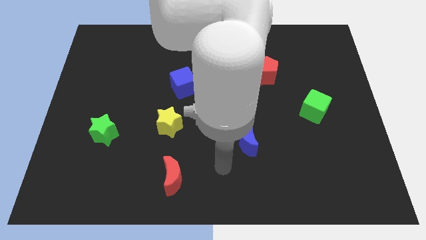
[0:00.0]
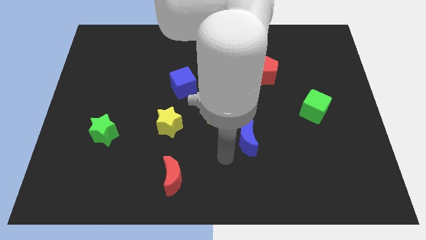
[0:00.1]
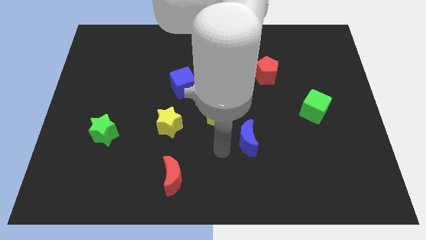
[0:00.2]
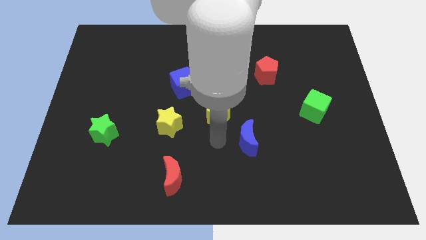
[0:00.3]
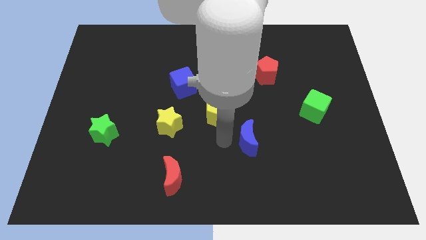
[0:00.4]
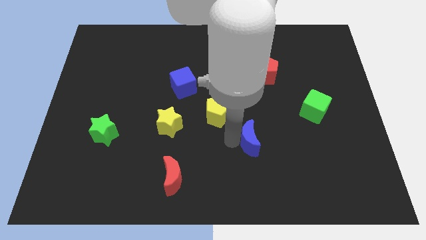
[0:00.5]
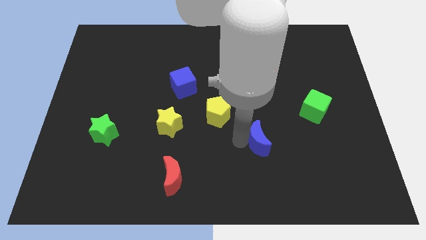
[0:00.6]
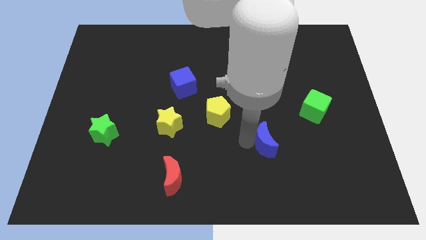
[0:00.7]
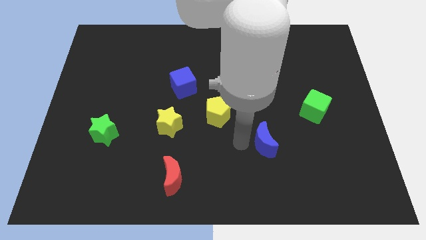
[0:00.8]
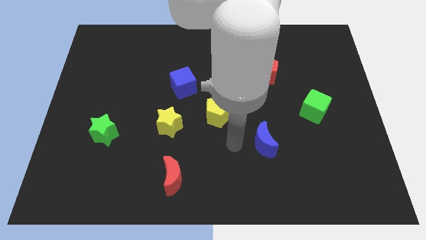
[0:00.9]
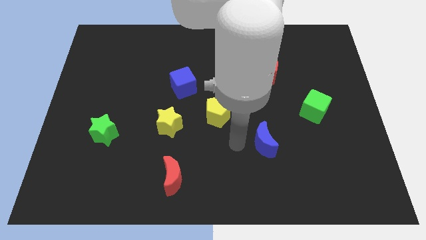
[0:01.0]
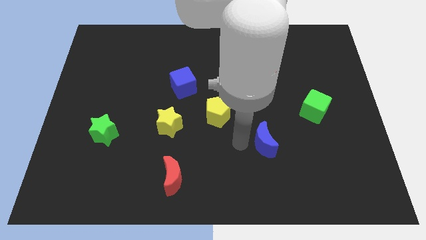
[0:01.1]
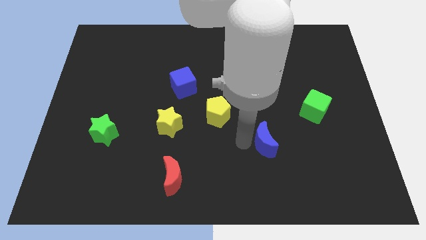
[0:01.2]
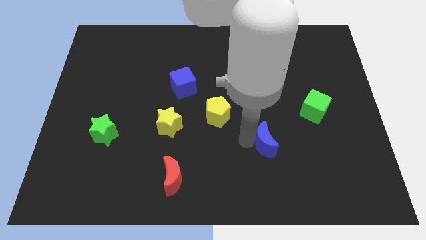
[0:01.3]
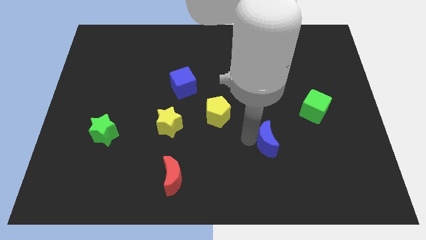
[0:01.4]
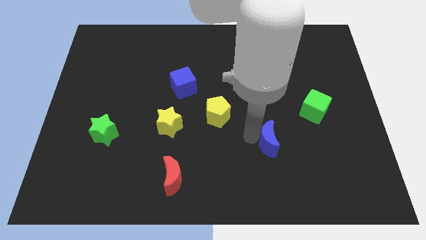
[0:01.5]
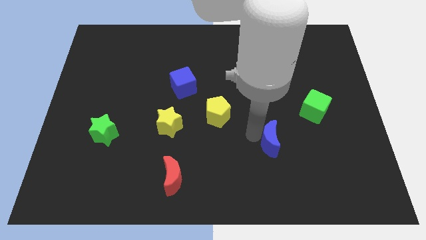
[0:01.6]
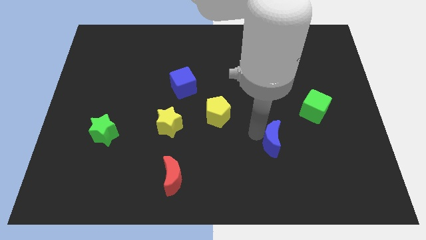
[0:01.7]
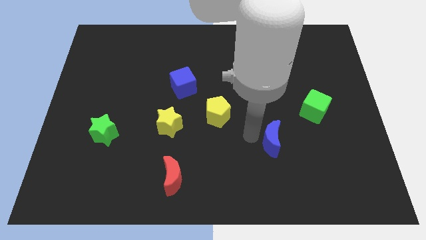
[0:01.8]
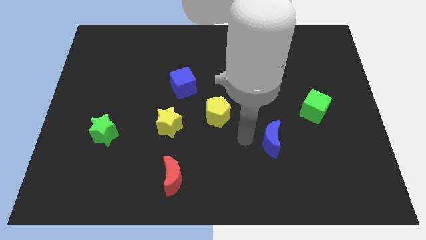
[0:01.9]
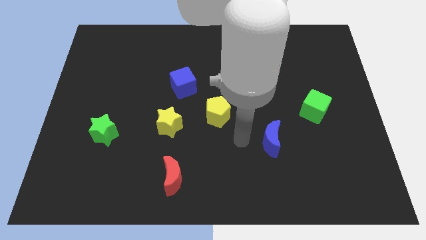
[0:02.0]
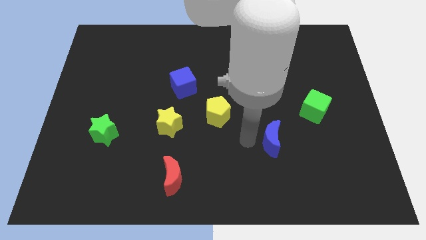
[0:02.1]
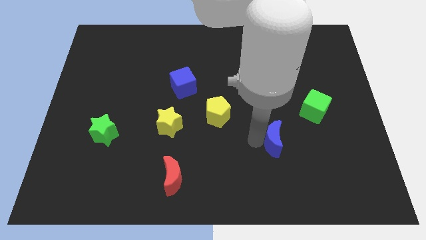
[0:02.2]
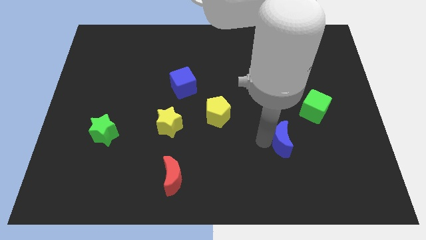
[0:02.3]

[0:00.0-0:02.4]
move the blue moon a bit to the right

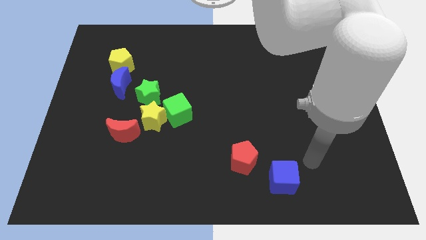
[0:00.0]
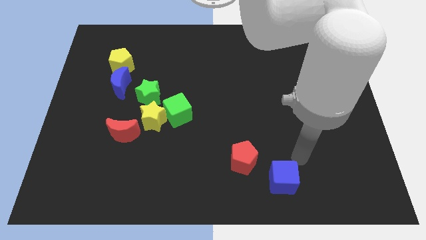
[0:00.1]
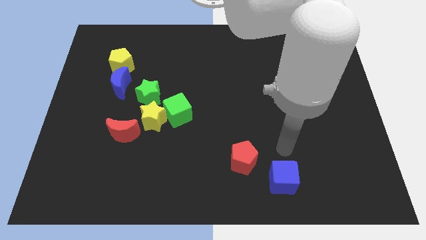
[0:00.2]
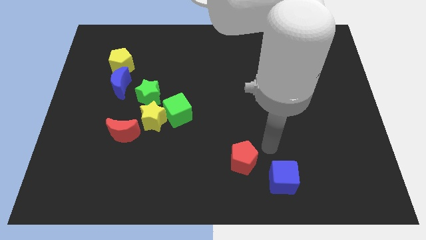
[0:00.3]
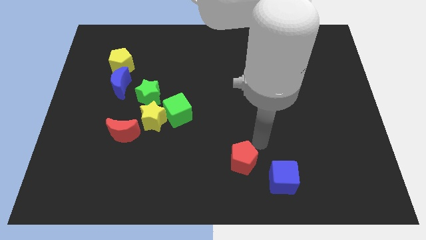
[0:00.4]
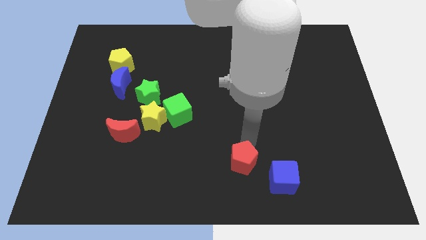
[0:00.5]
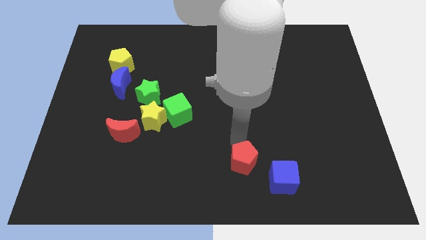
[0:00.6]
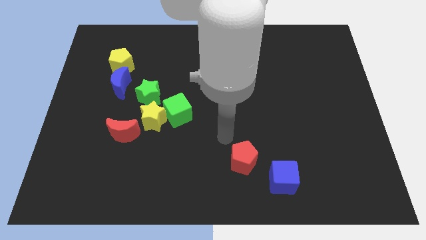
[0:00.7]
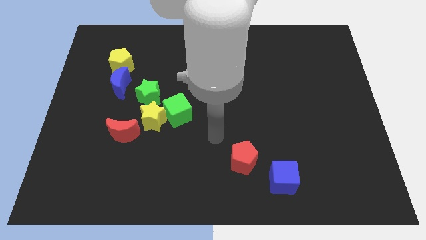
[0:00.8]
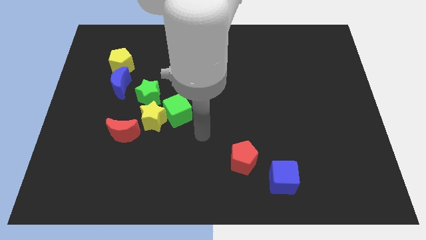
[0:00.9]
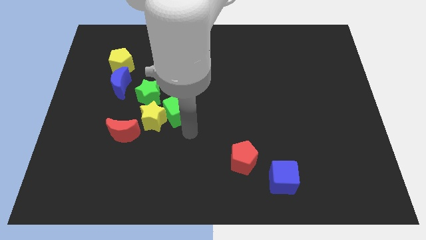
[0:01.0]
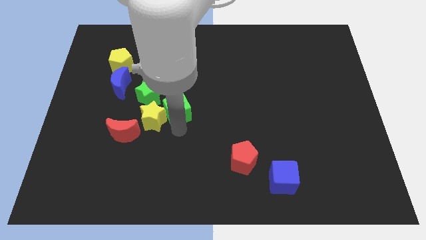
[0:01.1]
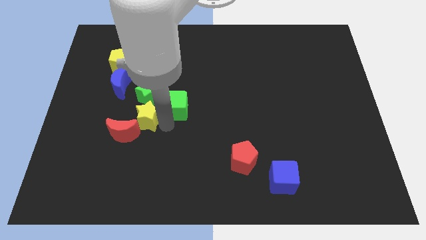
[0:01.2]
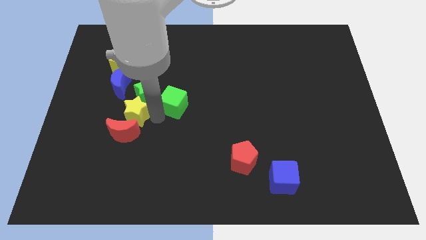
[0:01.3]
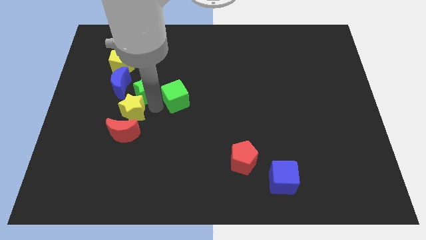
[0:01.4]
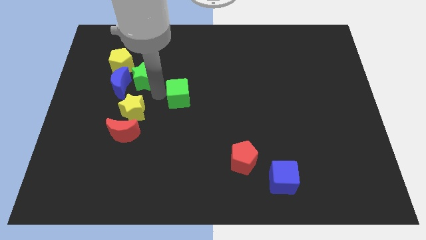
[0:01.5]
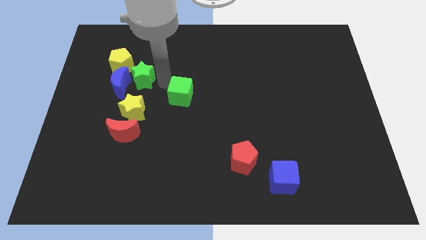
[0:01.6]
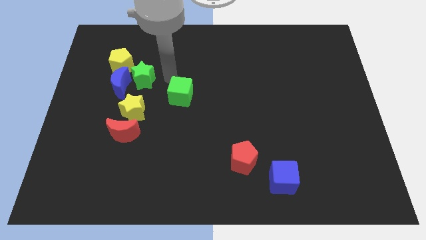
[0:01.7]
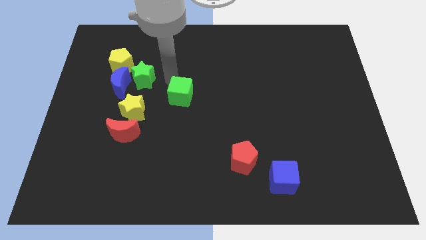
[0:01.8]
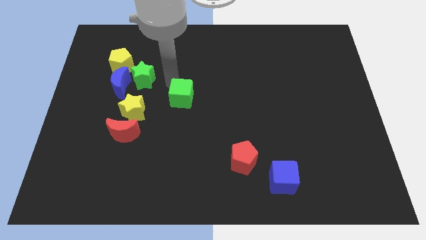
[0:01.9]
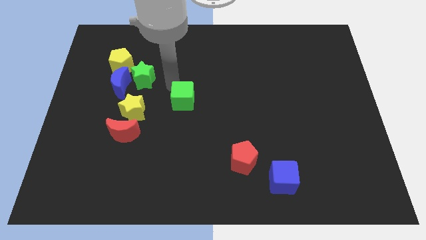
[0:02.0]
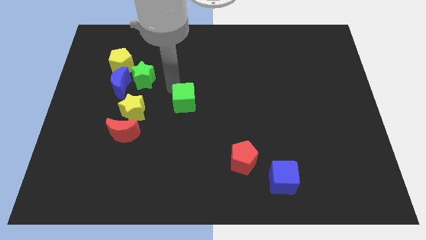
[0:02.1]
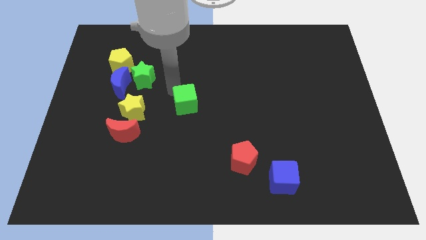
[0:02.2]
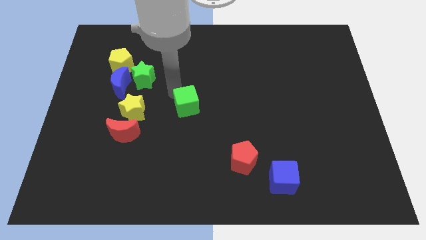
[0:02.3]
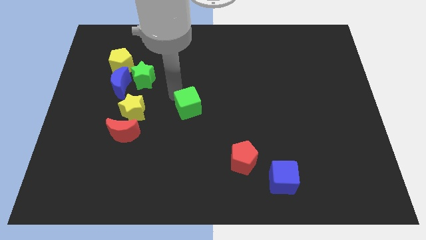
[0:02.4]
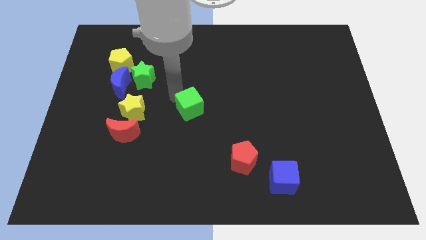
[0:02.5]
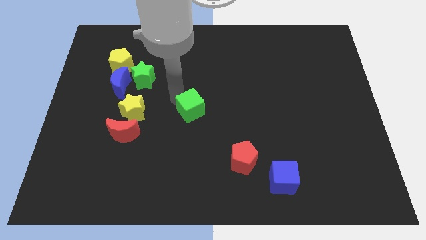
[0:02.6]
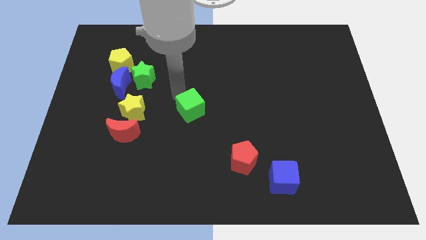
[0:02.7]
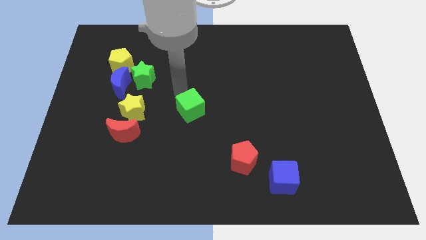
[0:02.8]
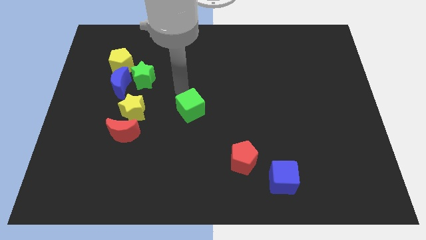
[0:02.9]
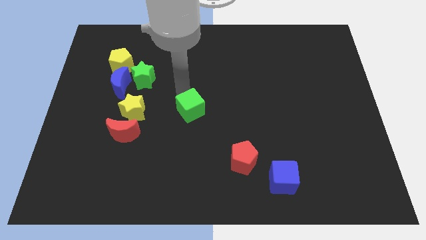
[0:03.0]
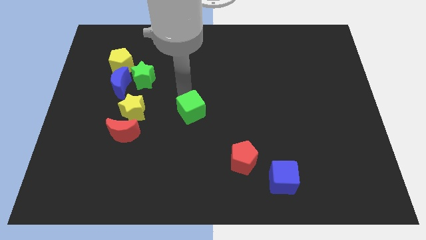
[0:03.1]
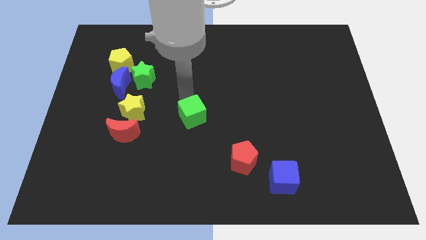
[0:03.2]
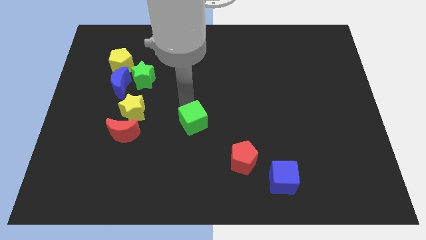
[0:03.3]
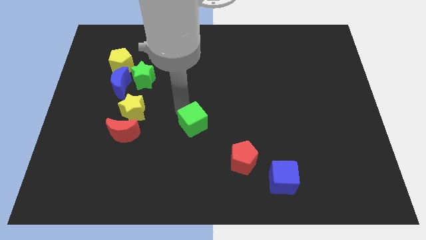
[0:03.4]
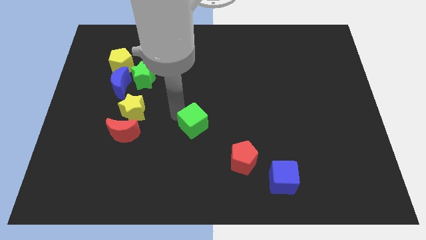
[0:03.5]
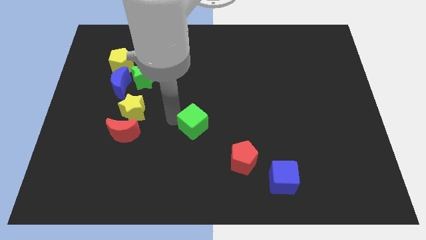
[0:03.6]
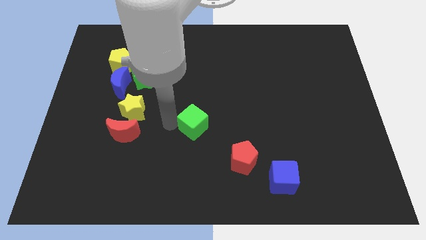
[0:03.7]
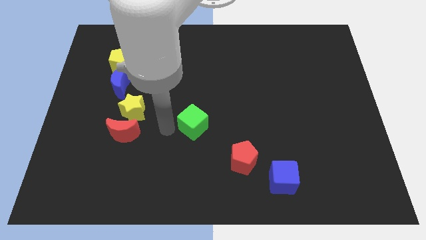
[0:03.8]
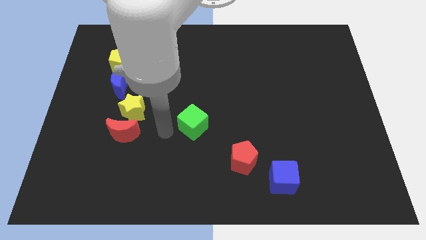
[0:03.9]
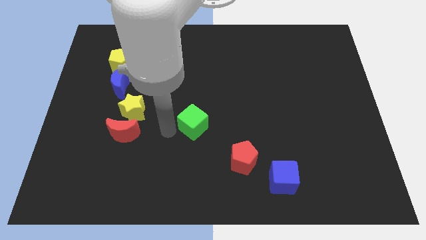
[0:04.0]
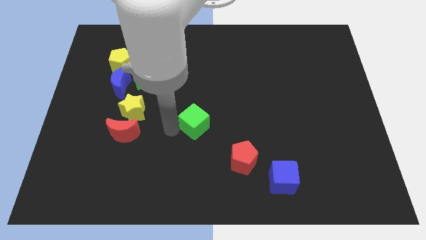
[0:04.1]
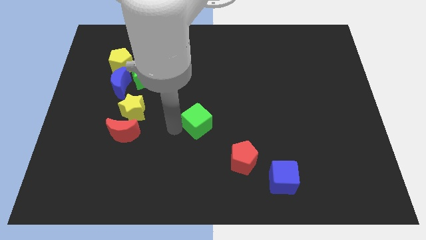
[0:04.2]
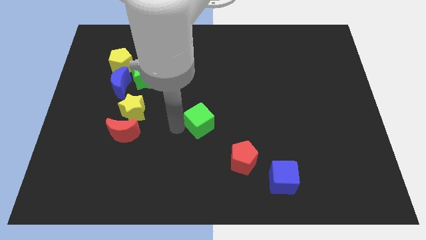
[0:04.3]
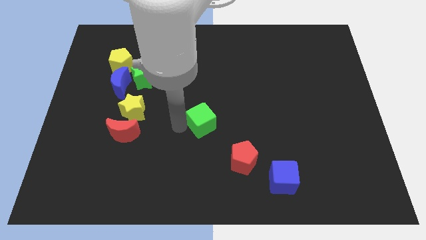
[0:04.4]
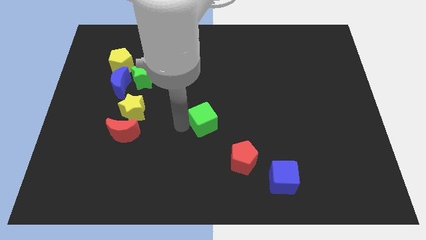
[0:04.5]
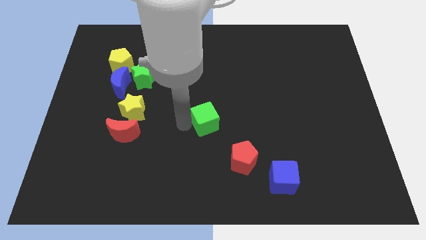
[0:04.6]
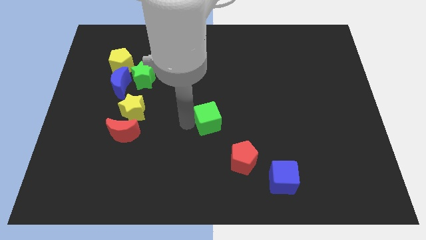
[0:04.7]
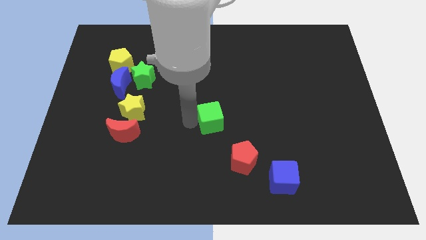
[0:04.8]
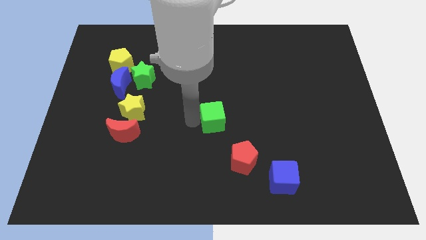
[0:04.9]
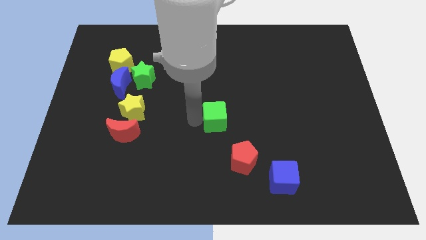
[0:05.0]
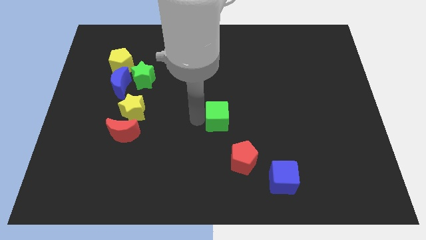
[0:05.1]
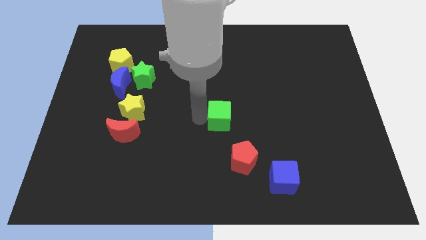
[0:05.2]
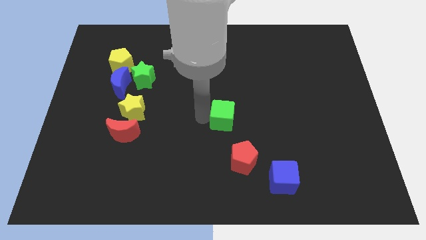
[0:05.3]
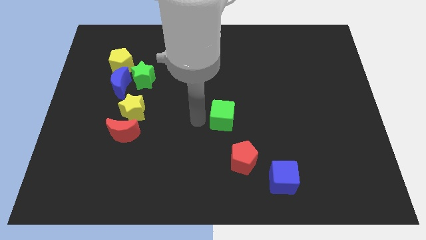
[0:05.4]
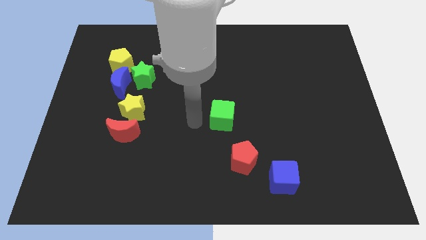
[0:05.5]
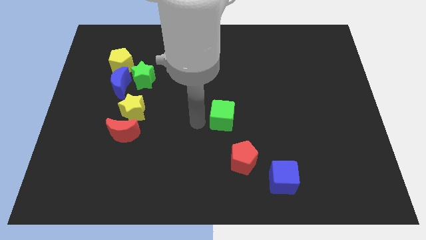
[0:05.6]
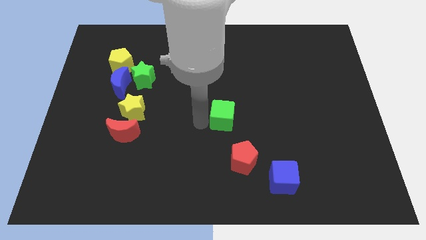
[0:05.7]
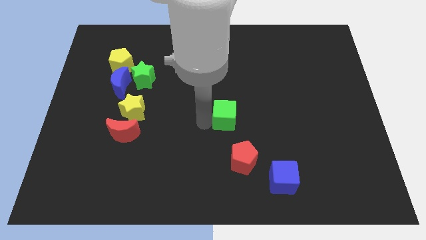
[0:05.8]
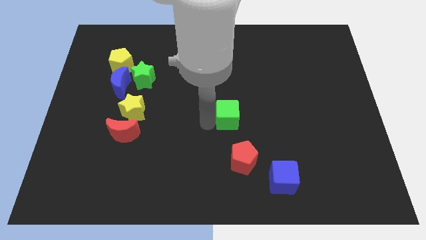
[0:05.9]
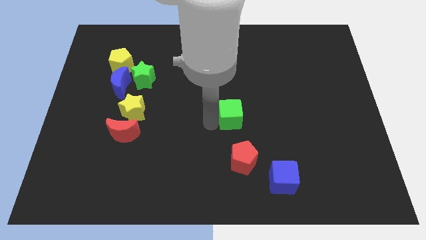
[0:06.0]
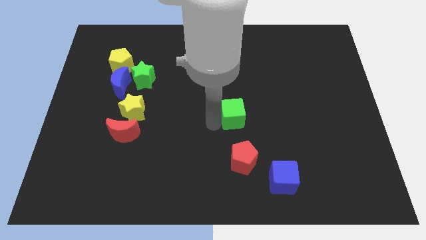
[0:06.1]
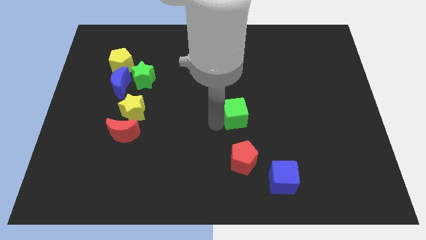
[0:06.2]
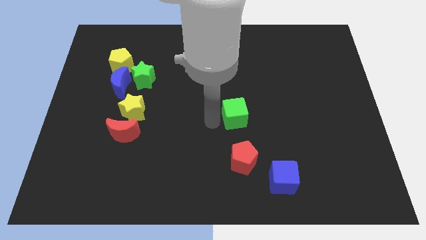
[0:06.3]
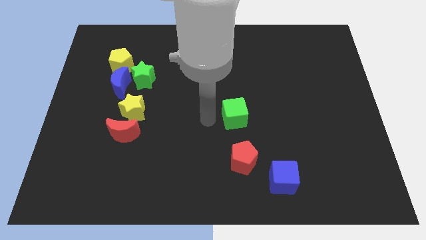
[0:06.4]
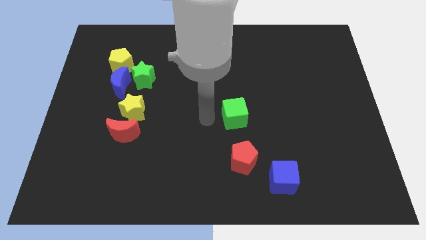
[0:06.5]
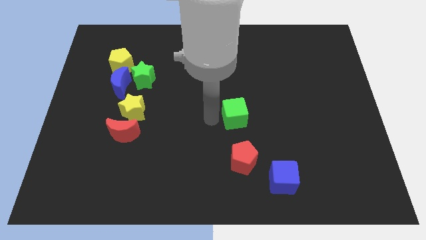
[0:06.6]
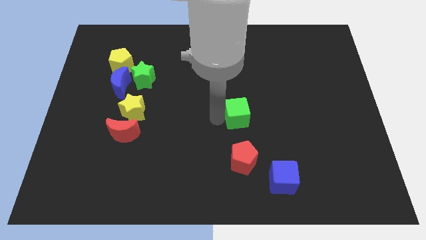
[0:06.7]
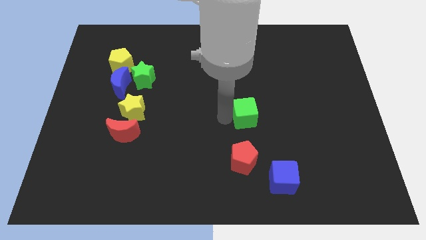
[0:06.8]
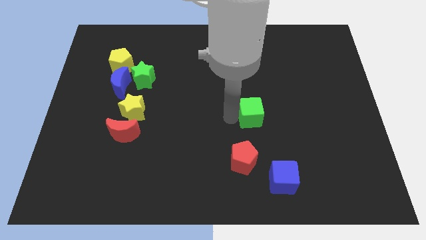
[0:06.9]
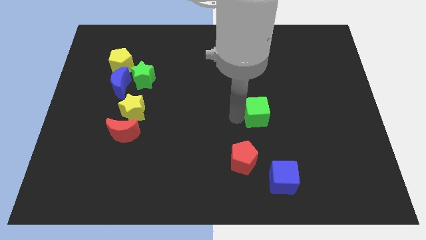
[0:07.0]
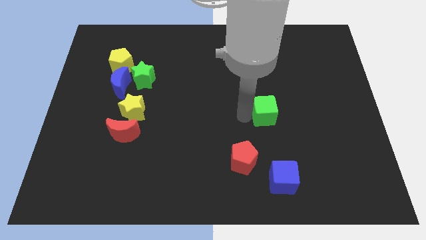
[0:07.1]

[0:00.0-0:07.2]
push the green cube to the right
